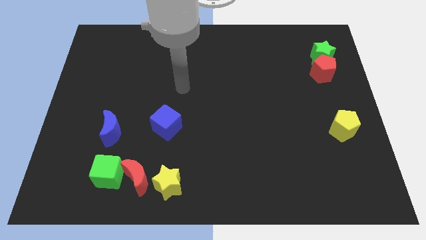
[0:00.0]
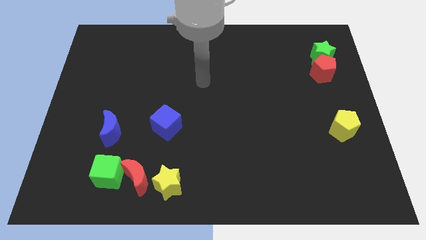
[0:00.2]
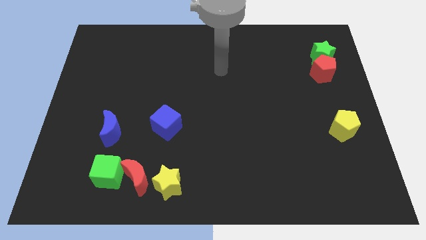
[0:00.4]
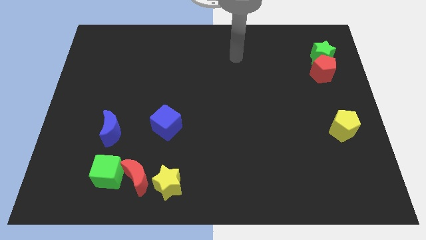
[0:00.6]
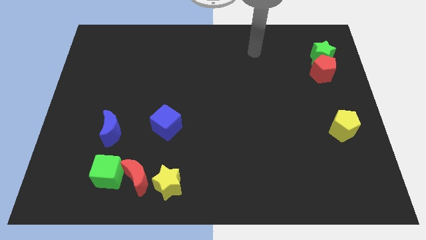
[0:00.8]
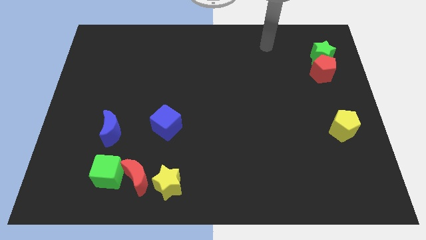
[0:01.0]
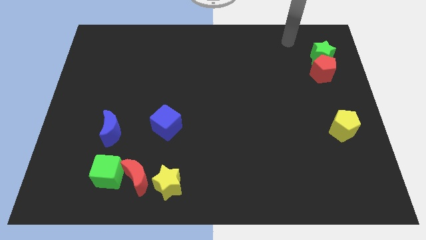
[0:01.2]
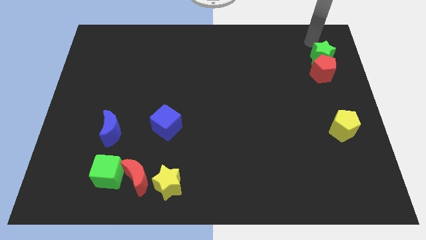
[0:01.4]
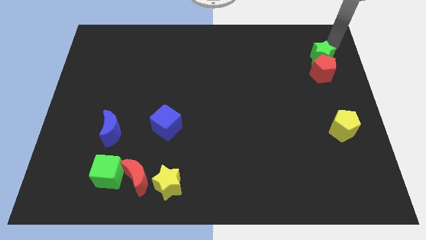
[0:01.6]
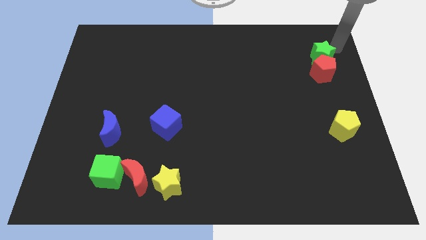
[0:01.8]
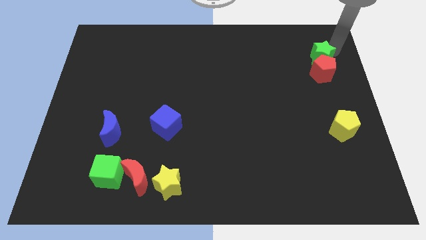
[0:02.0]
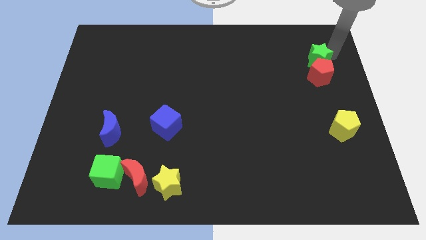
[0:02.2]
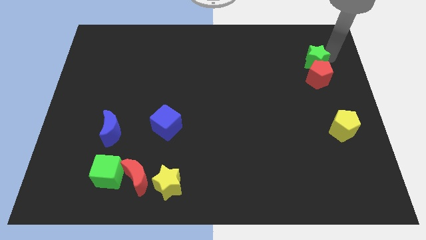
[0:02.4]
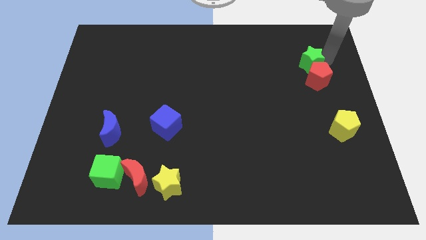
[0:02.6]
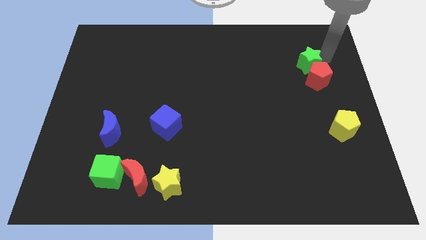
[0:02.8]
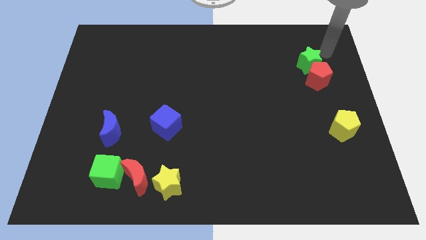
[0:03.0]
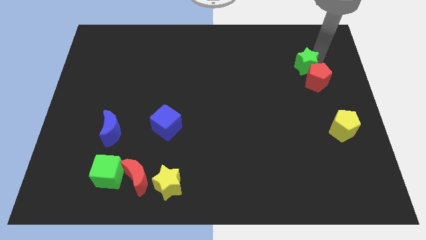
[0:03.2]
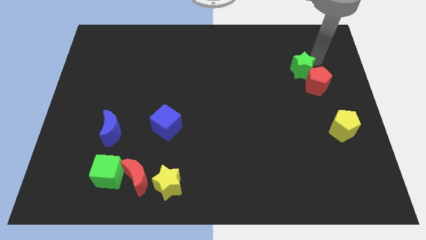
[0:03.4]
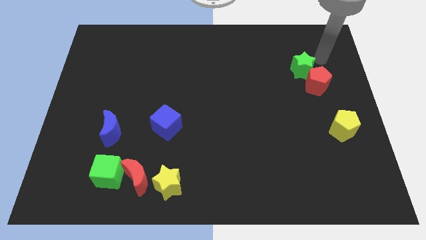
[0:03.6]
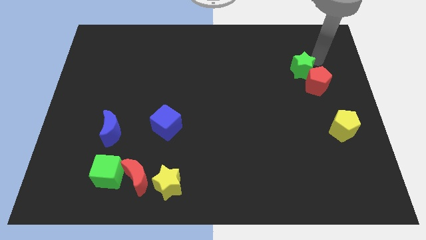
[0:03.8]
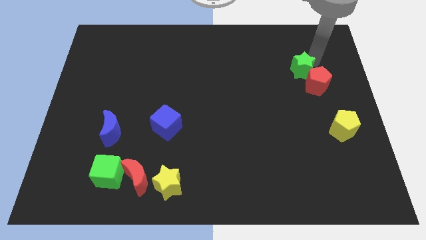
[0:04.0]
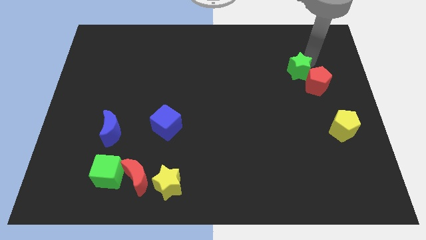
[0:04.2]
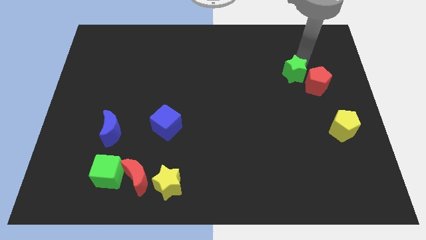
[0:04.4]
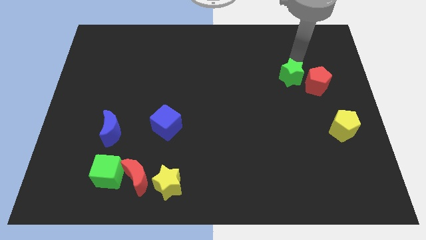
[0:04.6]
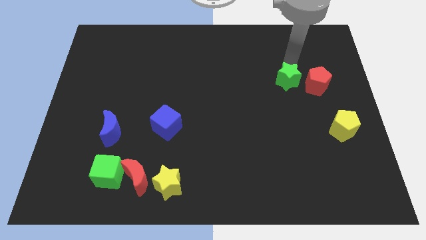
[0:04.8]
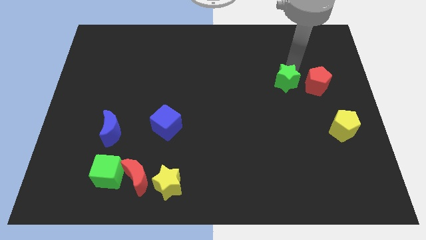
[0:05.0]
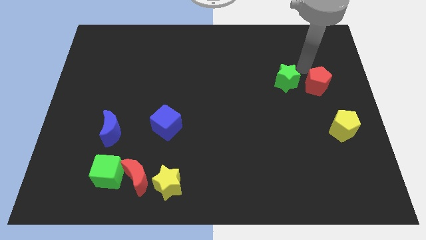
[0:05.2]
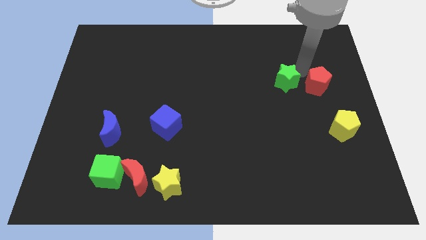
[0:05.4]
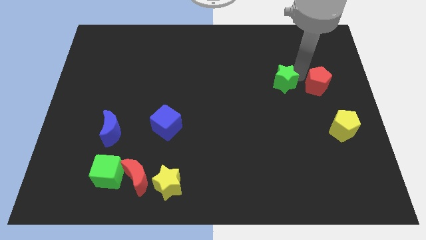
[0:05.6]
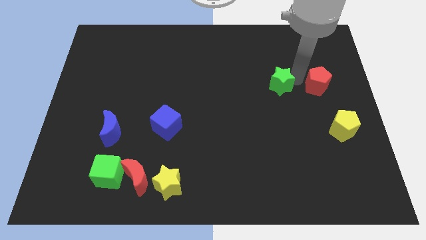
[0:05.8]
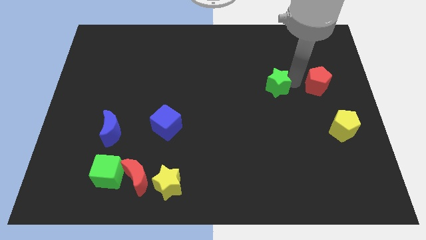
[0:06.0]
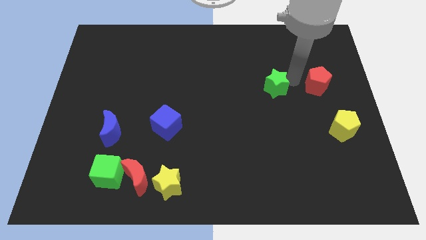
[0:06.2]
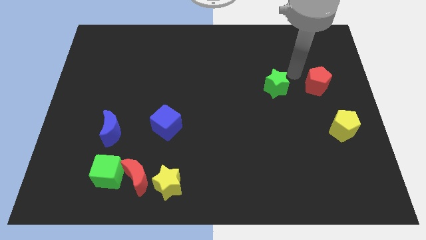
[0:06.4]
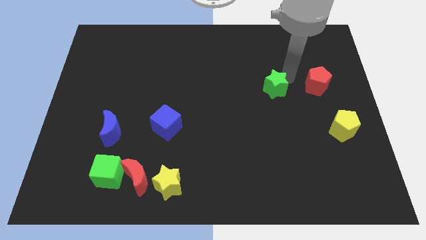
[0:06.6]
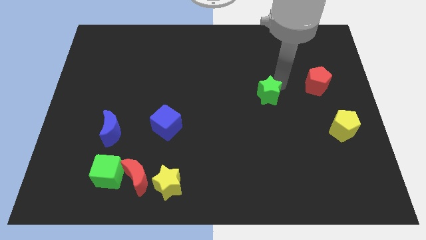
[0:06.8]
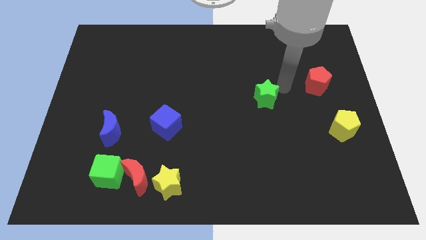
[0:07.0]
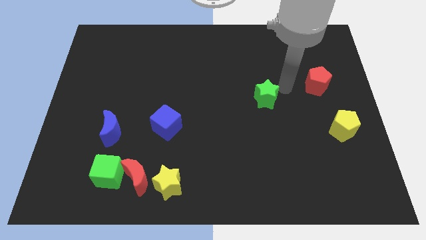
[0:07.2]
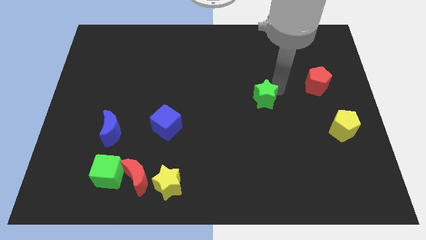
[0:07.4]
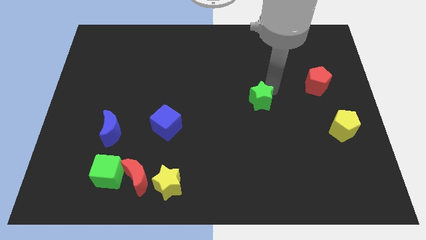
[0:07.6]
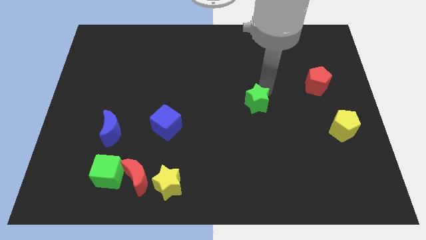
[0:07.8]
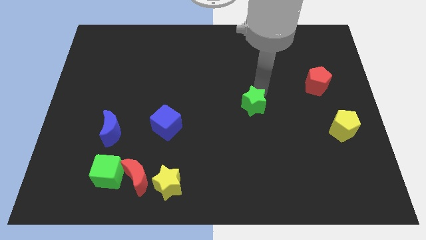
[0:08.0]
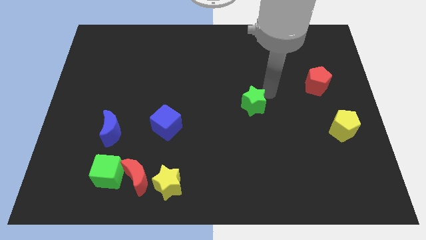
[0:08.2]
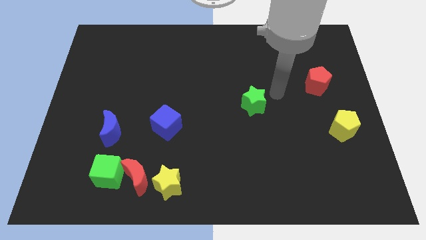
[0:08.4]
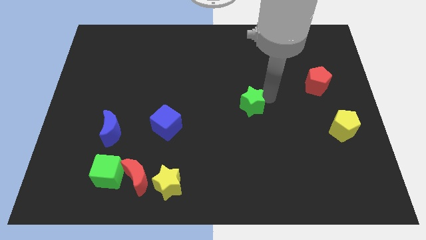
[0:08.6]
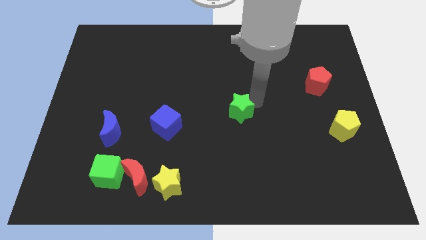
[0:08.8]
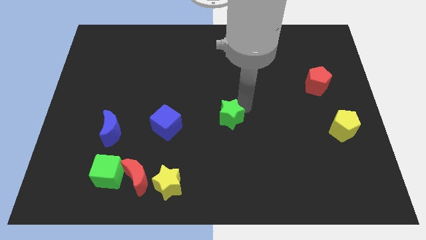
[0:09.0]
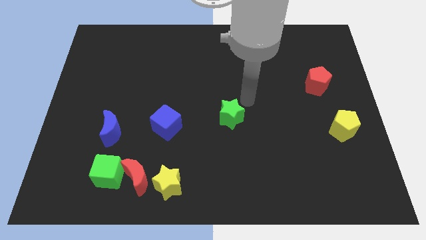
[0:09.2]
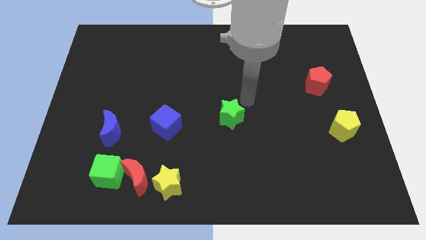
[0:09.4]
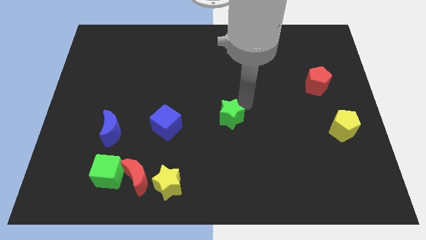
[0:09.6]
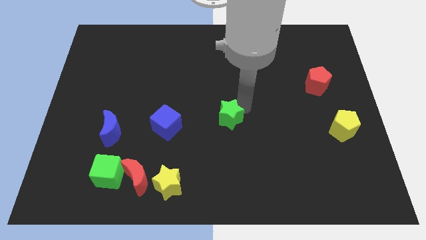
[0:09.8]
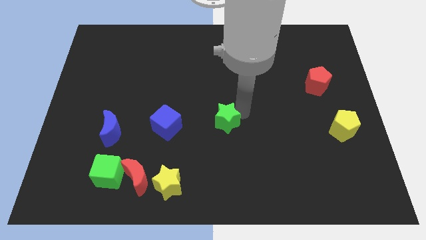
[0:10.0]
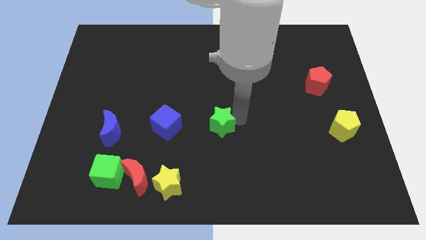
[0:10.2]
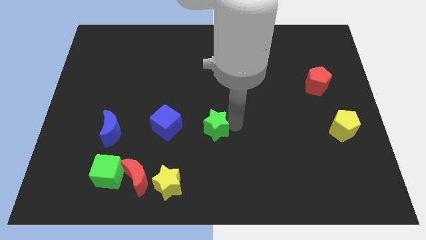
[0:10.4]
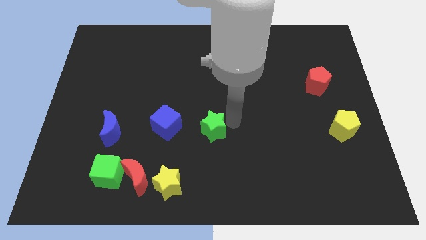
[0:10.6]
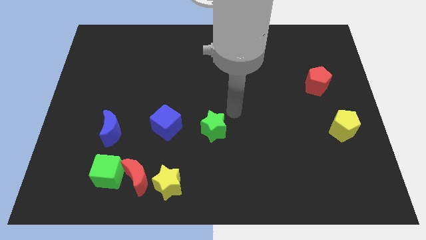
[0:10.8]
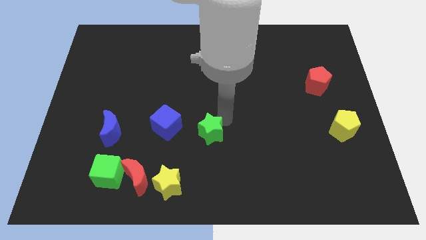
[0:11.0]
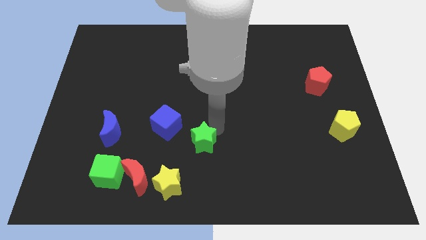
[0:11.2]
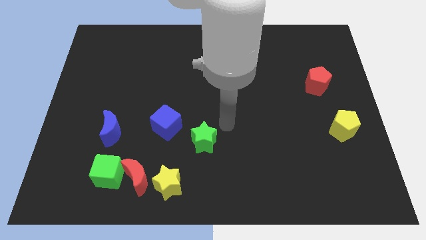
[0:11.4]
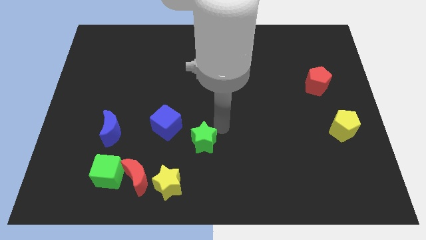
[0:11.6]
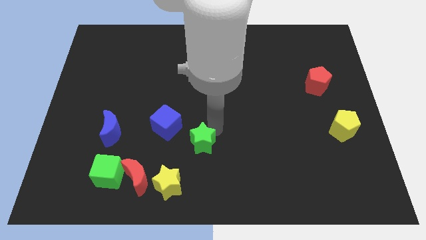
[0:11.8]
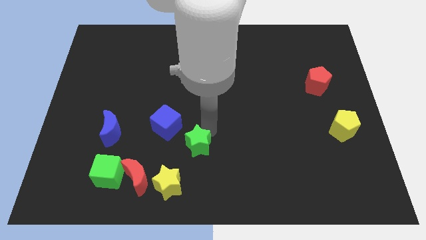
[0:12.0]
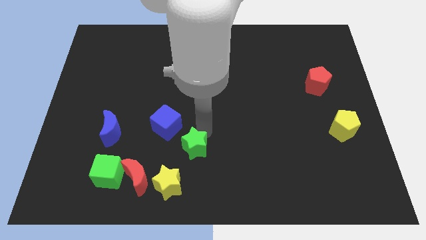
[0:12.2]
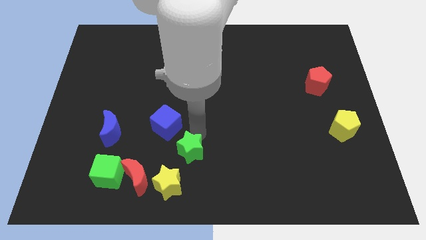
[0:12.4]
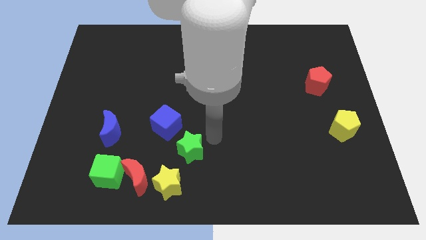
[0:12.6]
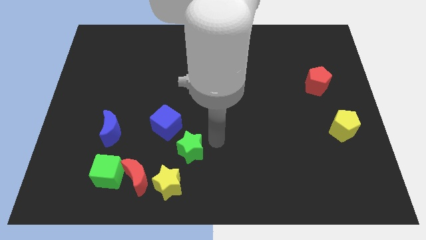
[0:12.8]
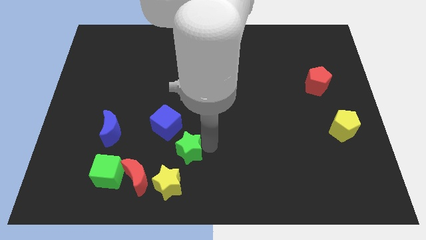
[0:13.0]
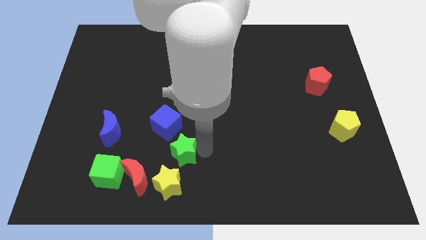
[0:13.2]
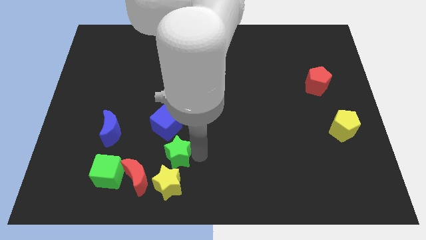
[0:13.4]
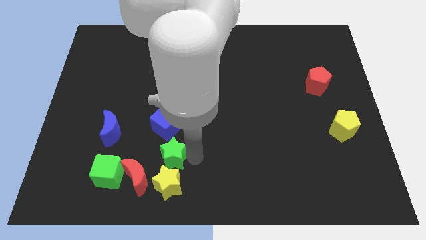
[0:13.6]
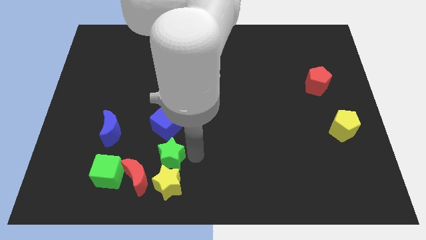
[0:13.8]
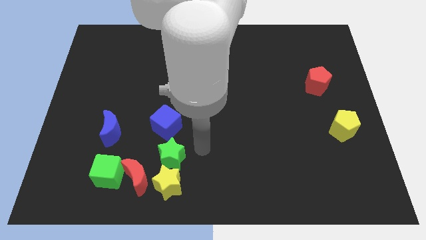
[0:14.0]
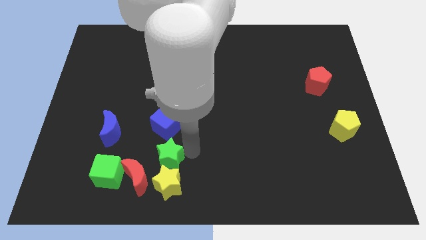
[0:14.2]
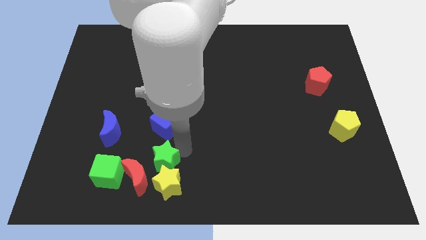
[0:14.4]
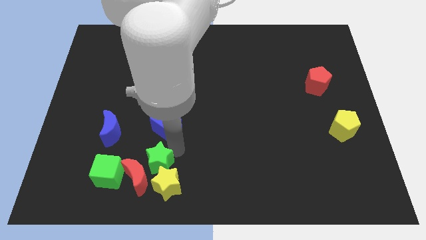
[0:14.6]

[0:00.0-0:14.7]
put the green star to the red moon
